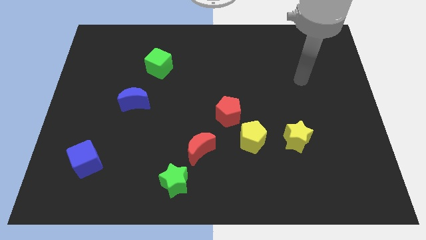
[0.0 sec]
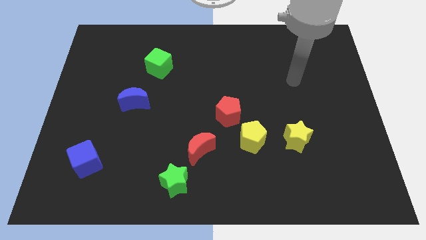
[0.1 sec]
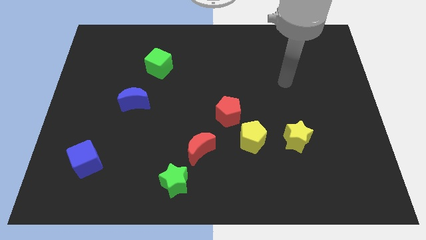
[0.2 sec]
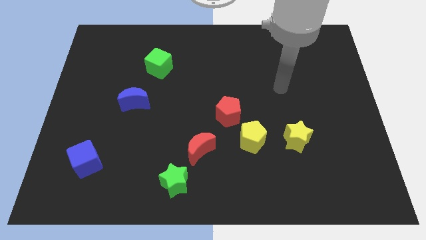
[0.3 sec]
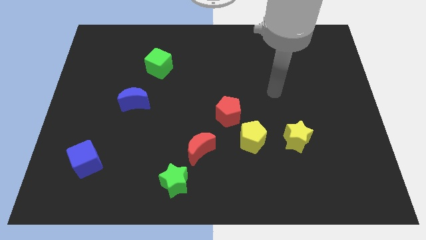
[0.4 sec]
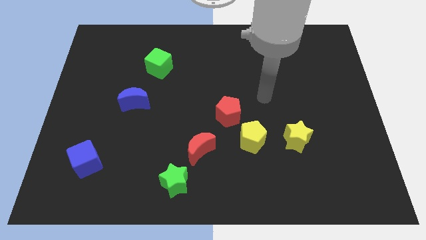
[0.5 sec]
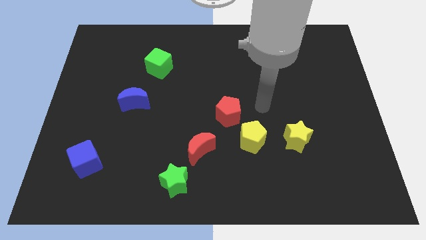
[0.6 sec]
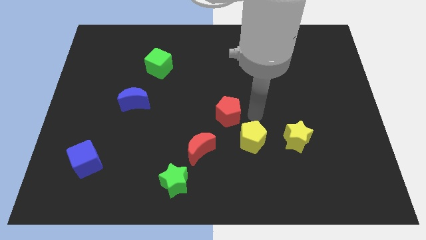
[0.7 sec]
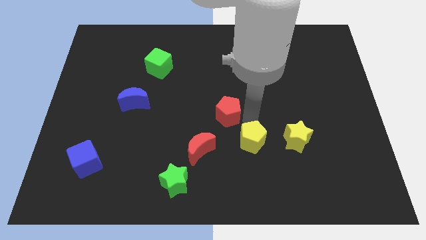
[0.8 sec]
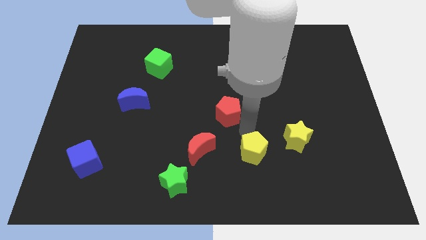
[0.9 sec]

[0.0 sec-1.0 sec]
pull the red pentagon apart from the yellow pentagon

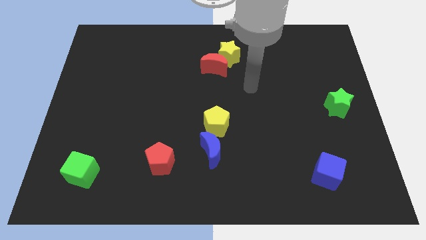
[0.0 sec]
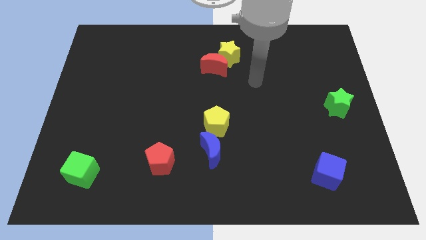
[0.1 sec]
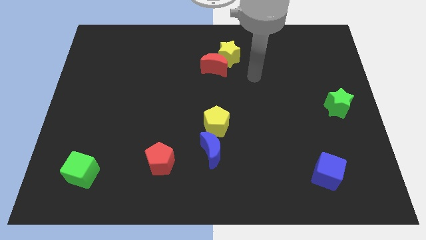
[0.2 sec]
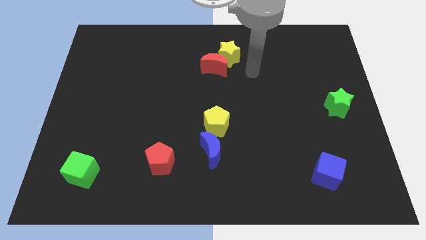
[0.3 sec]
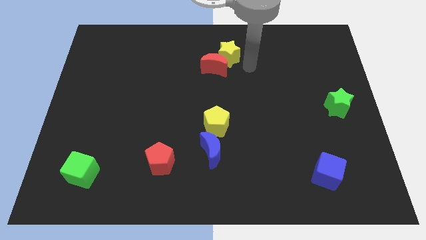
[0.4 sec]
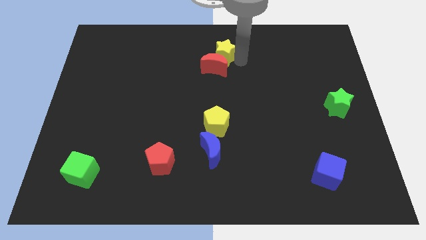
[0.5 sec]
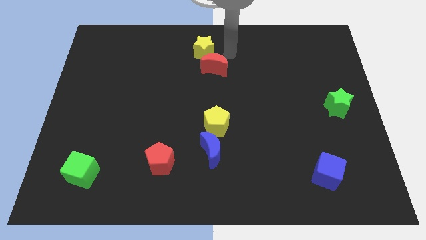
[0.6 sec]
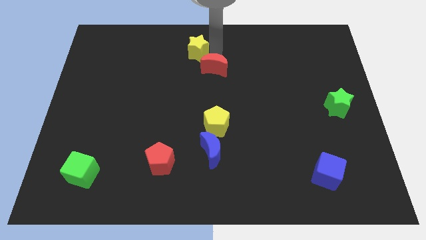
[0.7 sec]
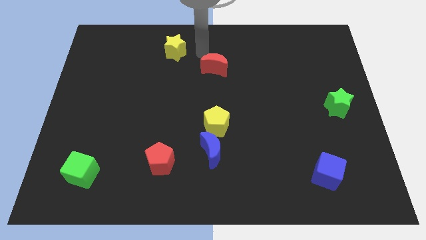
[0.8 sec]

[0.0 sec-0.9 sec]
move the red moon away from the yellow star

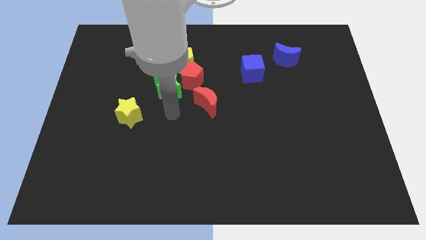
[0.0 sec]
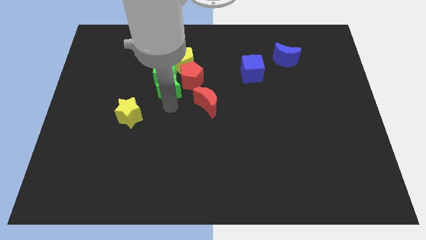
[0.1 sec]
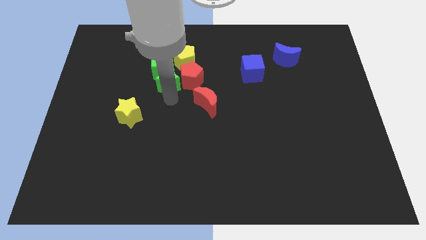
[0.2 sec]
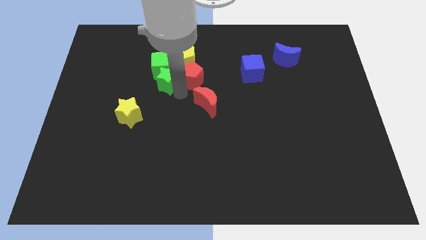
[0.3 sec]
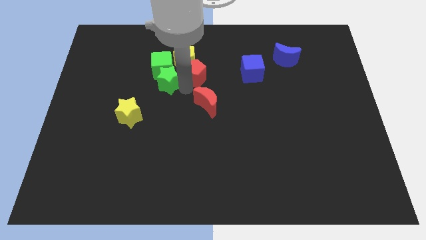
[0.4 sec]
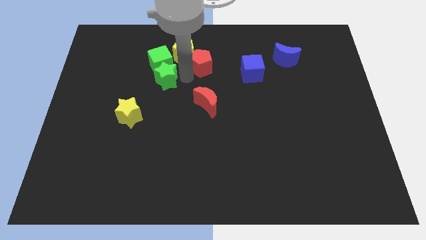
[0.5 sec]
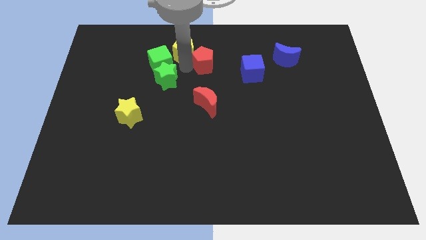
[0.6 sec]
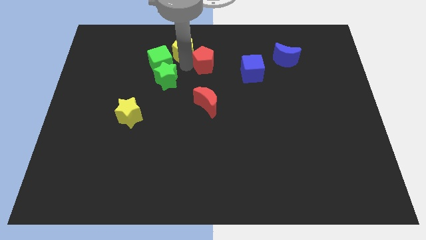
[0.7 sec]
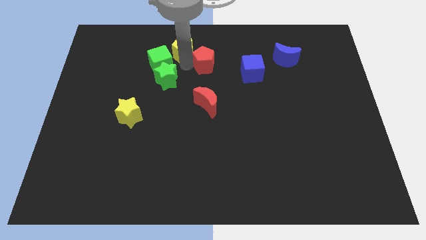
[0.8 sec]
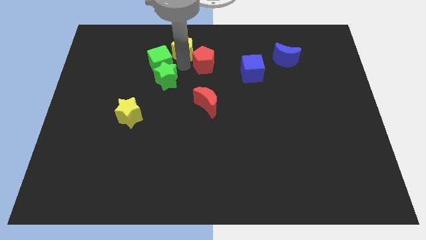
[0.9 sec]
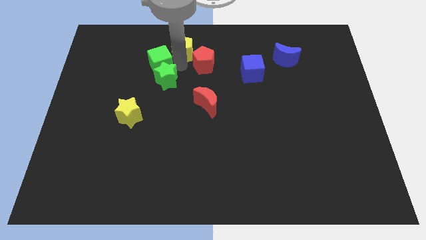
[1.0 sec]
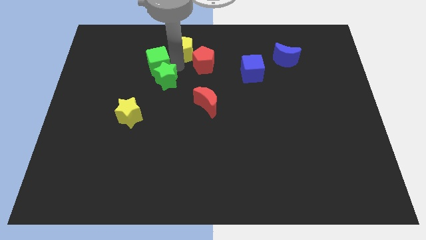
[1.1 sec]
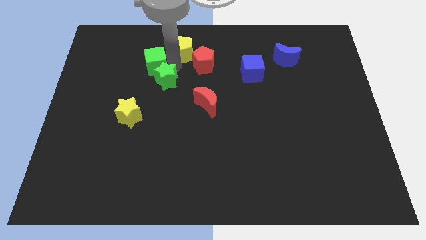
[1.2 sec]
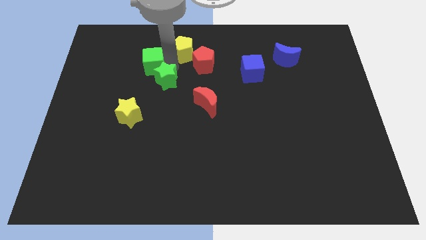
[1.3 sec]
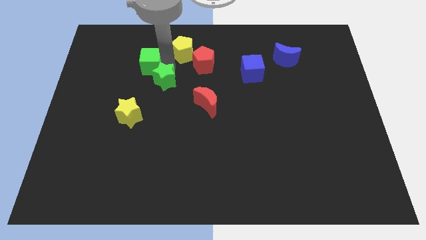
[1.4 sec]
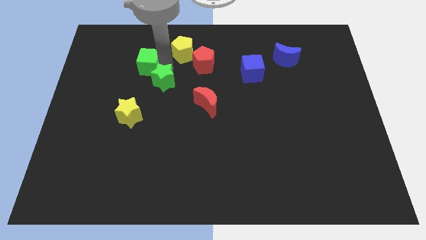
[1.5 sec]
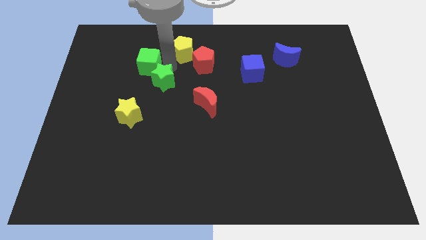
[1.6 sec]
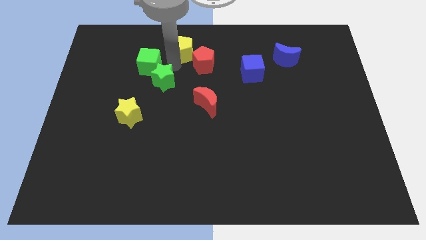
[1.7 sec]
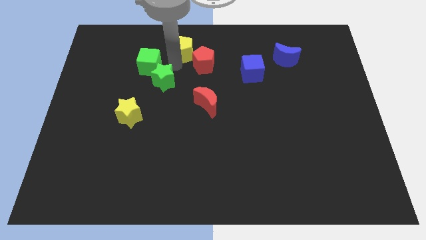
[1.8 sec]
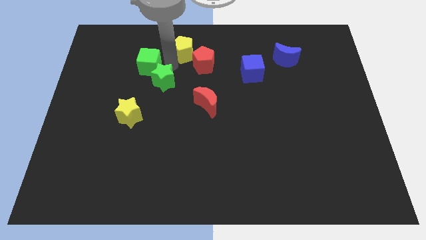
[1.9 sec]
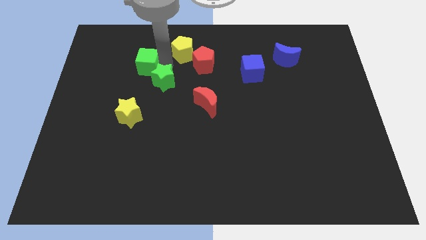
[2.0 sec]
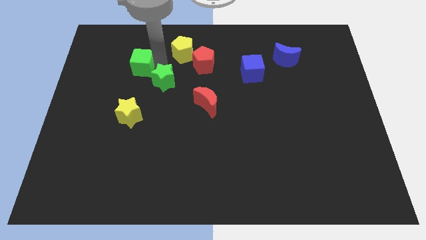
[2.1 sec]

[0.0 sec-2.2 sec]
pull the green cube apart from the green star, yellow pentagon, and red pentagon

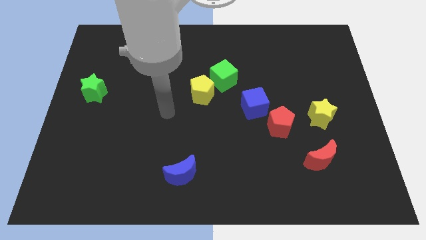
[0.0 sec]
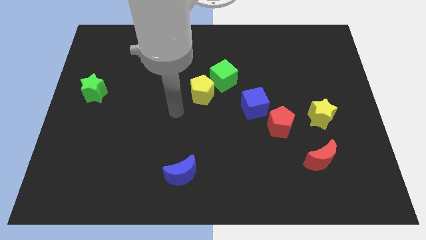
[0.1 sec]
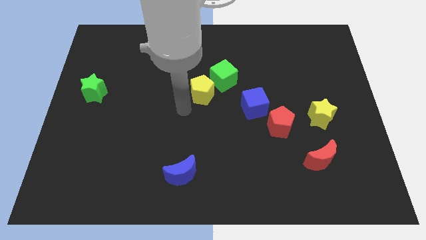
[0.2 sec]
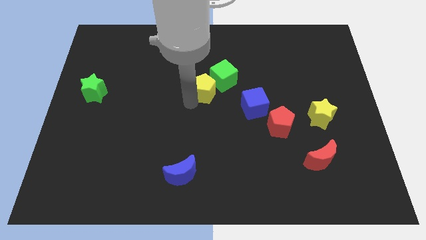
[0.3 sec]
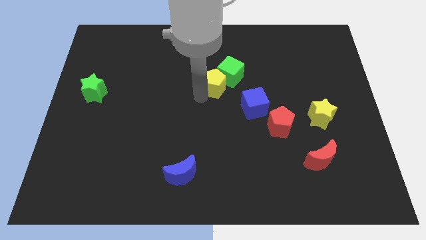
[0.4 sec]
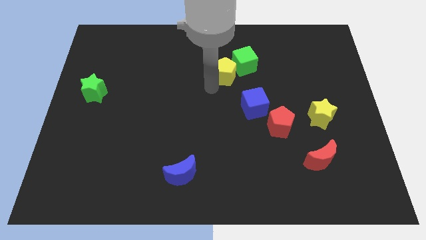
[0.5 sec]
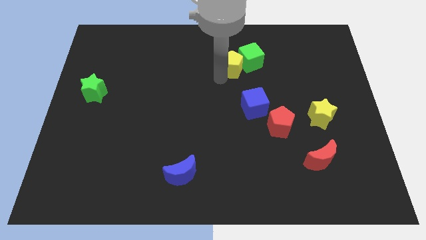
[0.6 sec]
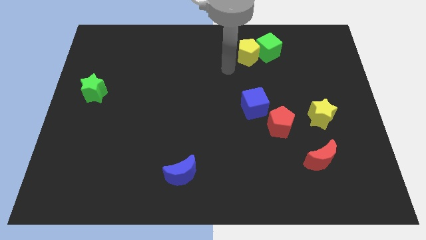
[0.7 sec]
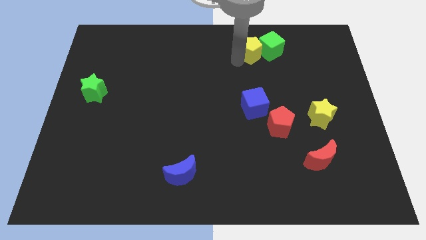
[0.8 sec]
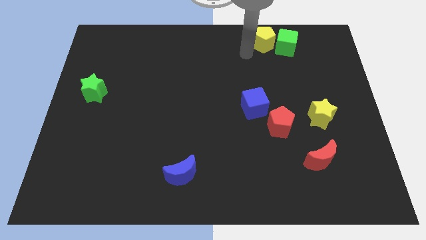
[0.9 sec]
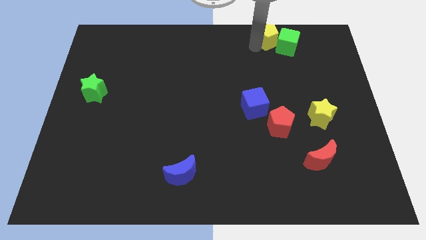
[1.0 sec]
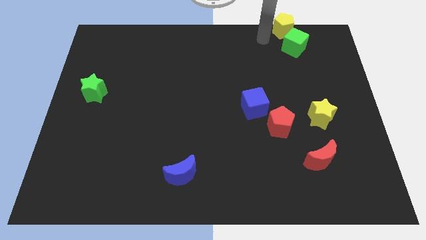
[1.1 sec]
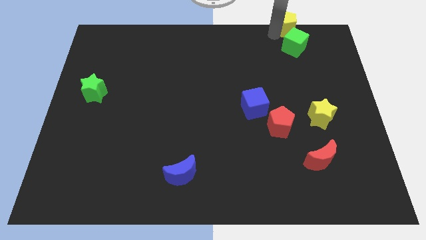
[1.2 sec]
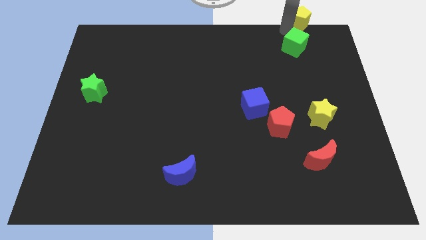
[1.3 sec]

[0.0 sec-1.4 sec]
move the green cube away from the yellow pentagon

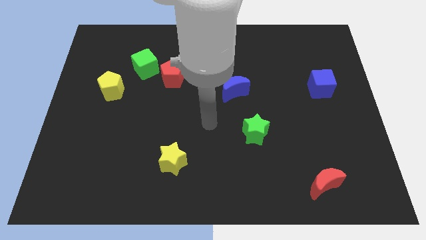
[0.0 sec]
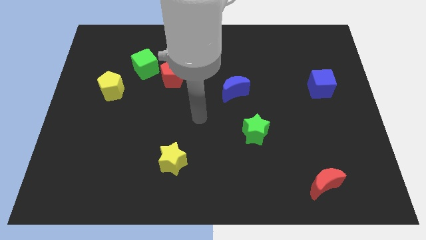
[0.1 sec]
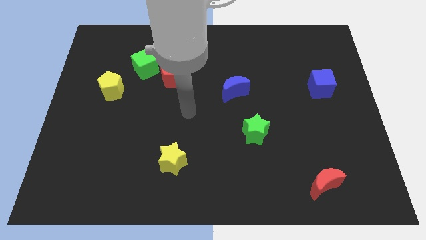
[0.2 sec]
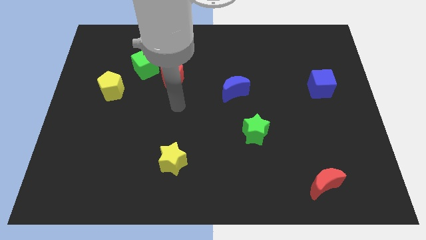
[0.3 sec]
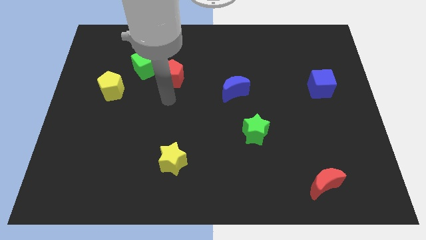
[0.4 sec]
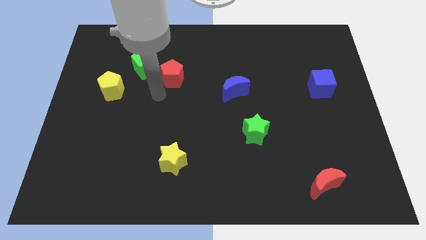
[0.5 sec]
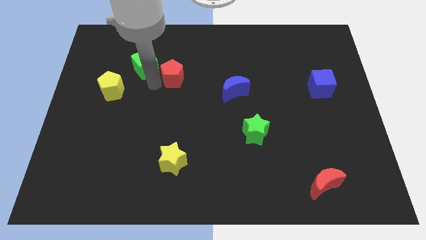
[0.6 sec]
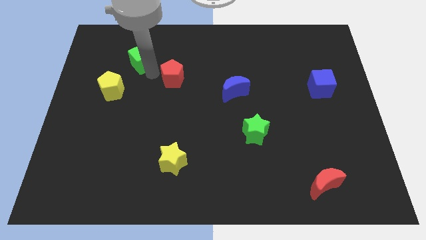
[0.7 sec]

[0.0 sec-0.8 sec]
move the red pentagon away from the green cube

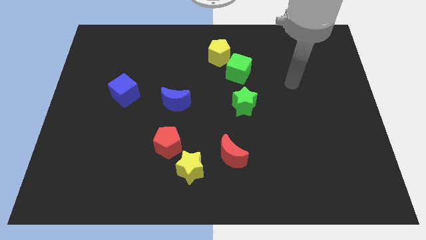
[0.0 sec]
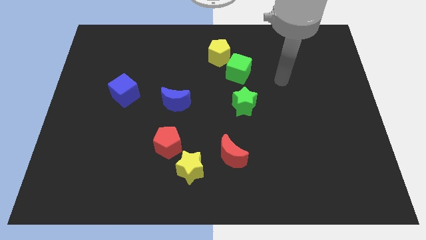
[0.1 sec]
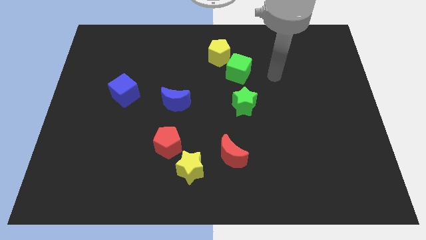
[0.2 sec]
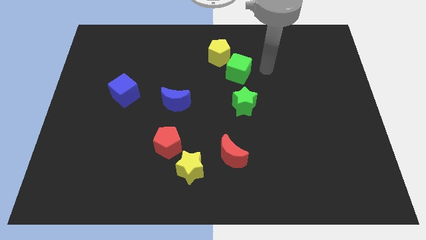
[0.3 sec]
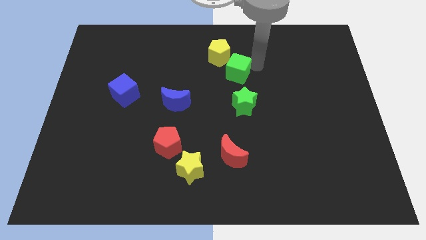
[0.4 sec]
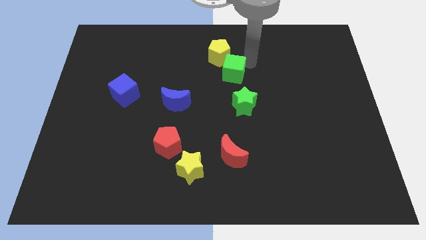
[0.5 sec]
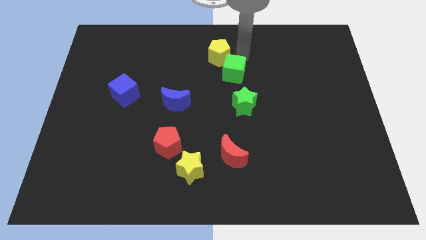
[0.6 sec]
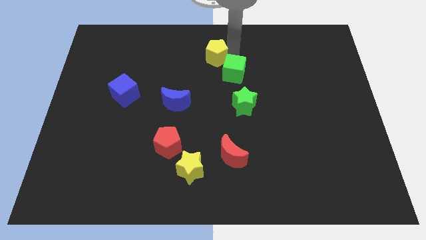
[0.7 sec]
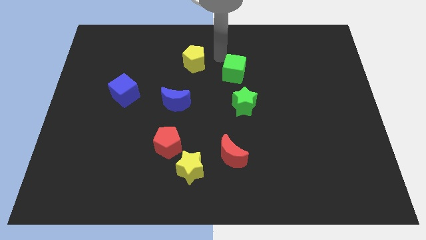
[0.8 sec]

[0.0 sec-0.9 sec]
pull the green cube apart from the yellow pentagon

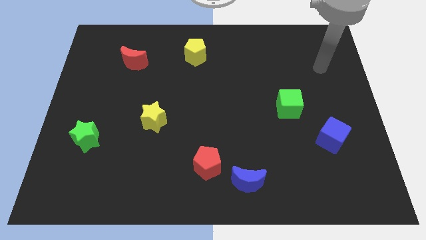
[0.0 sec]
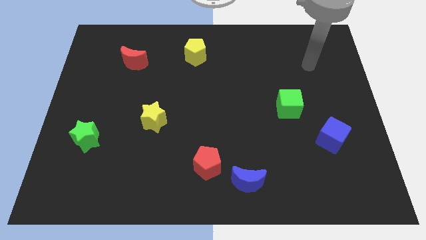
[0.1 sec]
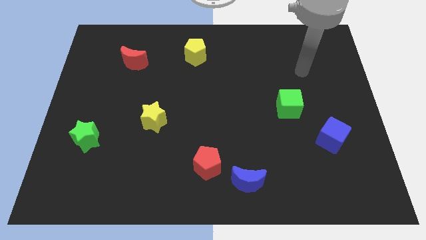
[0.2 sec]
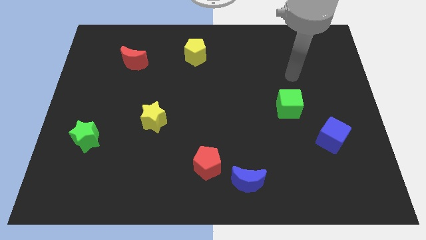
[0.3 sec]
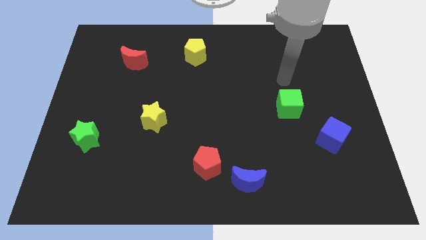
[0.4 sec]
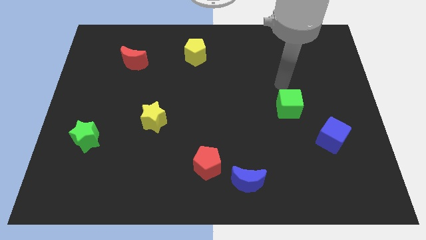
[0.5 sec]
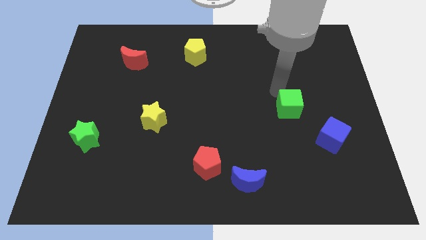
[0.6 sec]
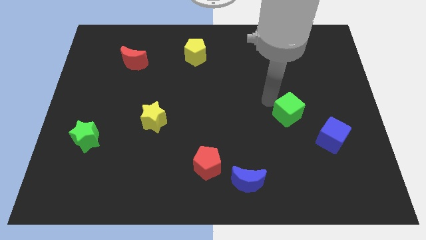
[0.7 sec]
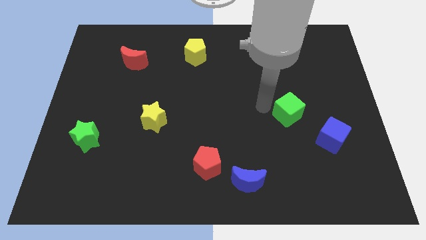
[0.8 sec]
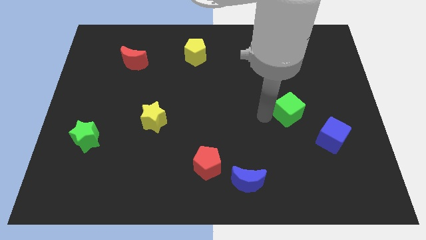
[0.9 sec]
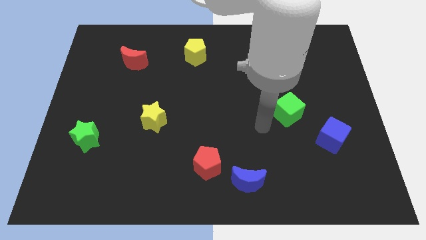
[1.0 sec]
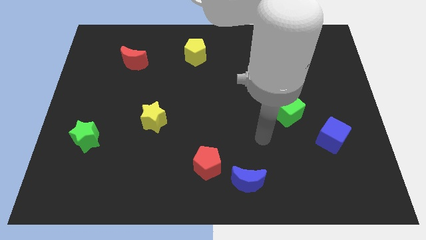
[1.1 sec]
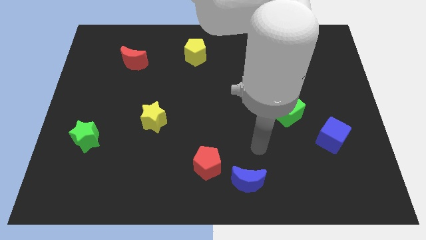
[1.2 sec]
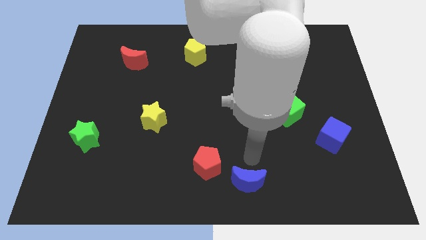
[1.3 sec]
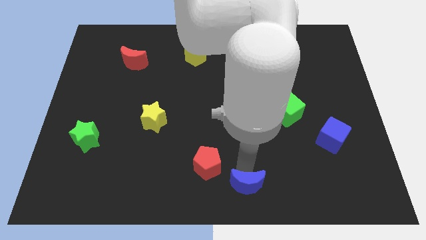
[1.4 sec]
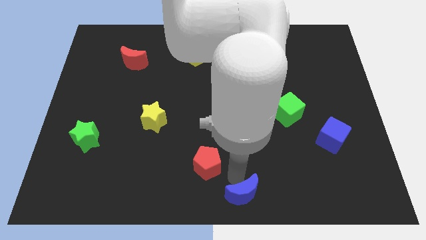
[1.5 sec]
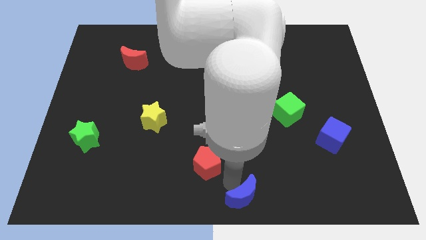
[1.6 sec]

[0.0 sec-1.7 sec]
move the red pentagon away from the blue moon

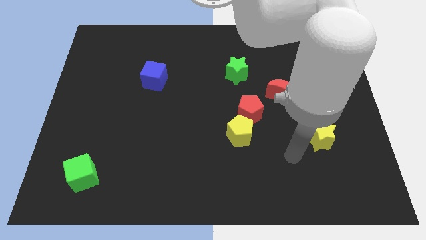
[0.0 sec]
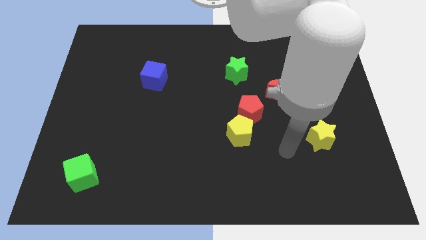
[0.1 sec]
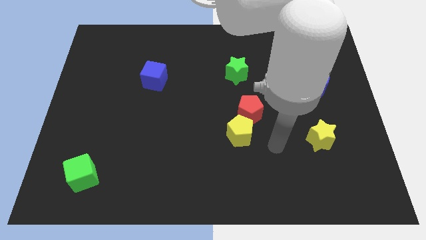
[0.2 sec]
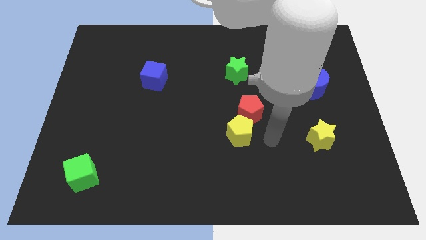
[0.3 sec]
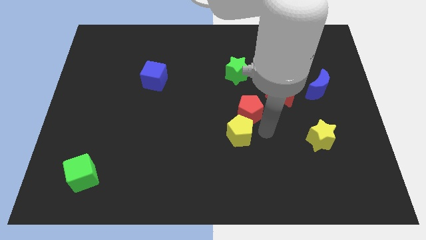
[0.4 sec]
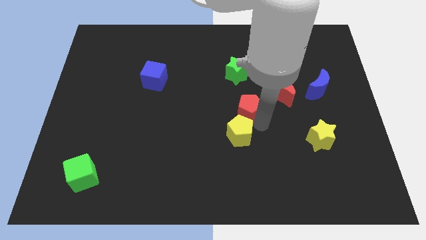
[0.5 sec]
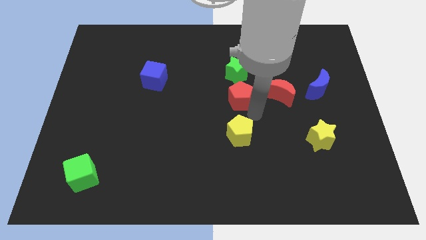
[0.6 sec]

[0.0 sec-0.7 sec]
pull the yellow pentagon apart from the red pentagon
